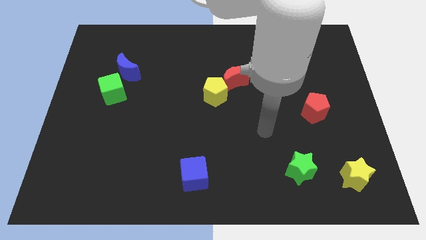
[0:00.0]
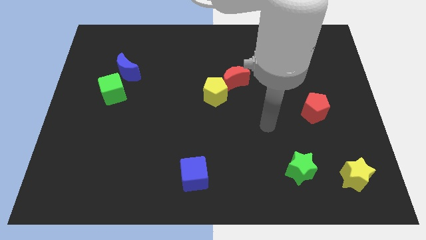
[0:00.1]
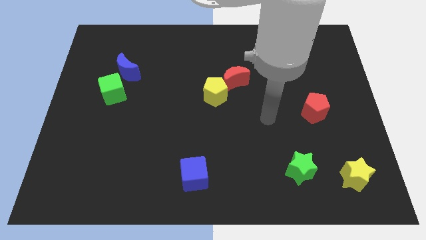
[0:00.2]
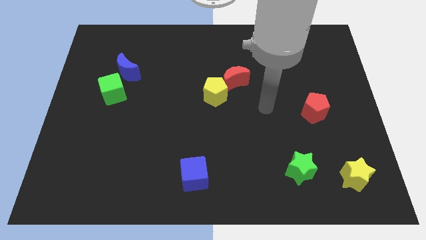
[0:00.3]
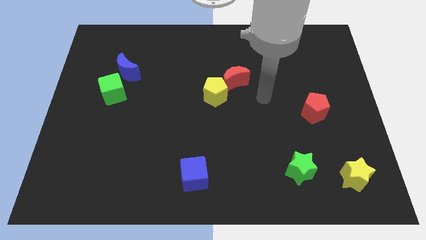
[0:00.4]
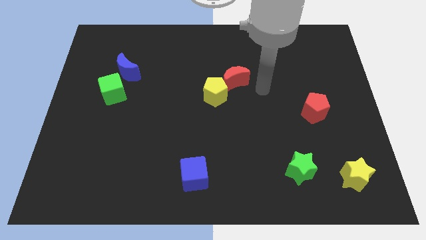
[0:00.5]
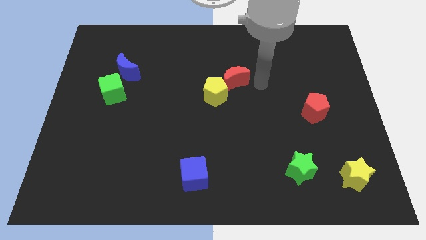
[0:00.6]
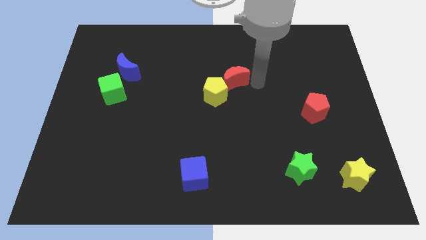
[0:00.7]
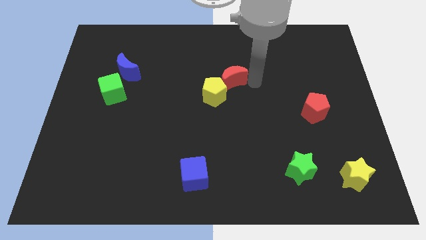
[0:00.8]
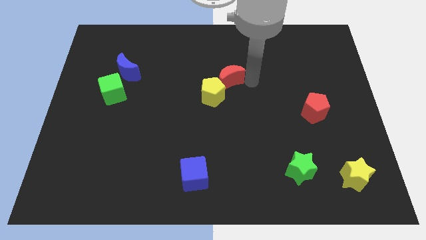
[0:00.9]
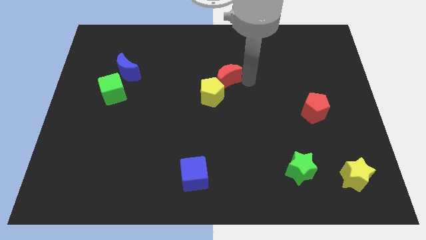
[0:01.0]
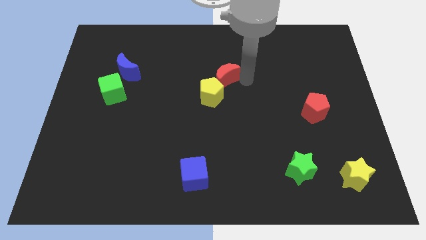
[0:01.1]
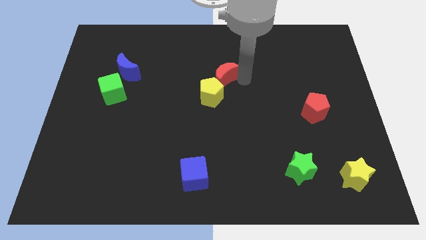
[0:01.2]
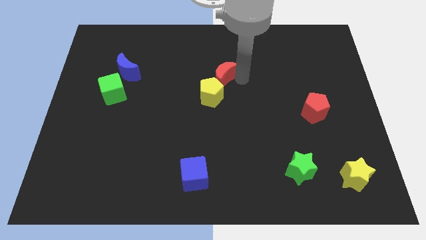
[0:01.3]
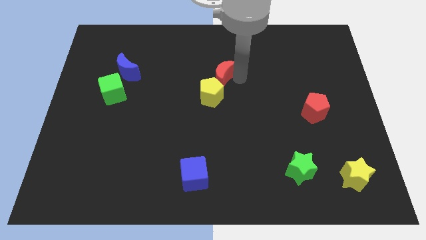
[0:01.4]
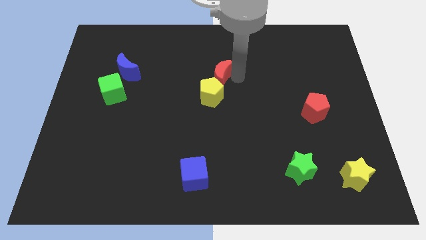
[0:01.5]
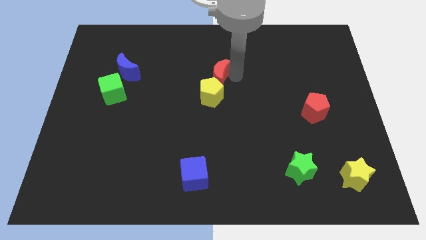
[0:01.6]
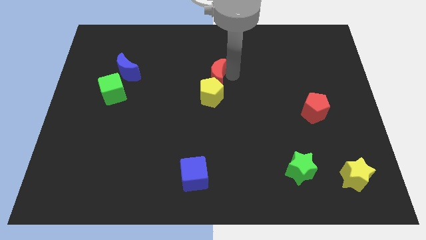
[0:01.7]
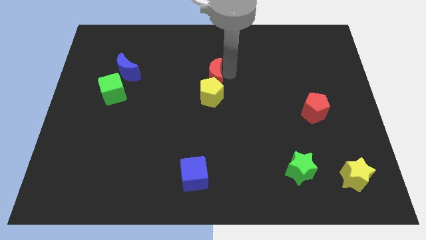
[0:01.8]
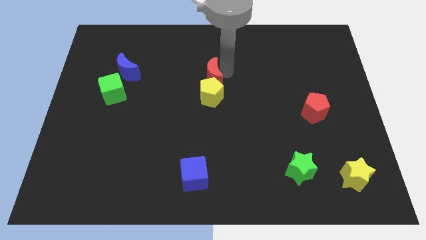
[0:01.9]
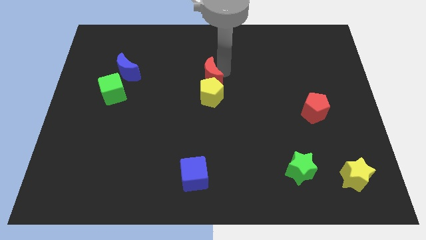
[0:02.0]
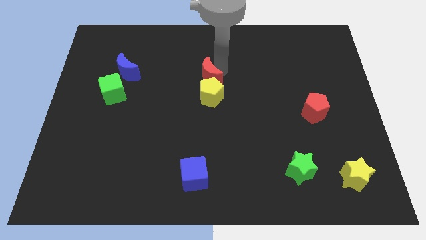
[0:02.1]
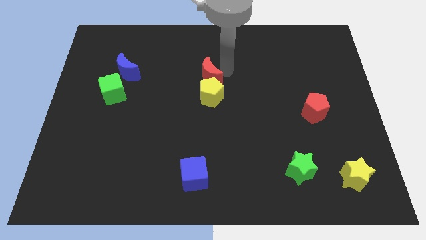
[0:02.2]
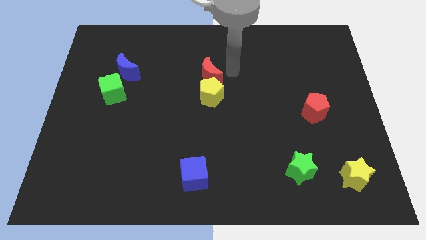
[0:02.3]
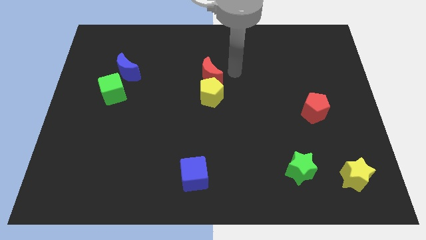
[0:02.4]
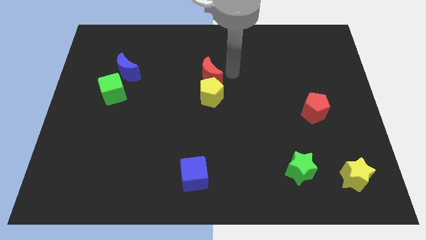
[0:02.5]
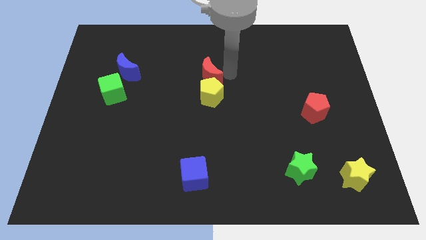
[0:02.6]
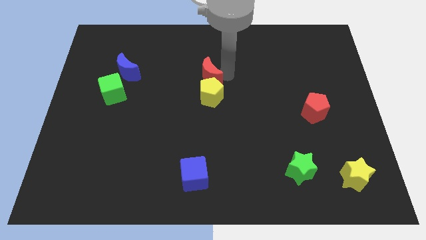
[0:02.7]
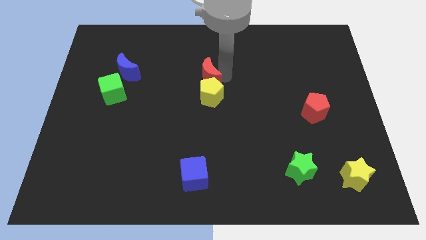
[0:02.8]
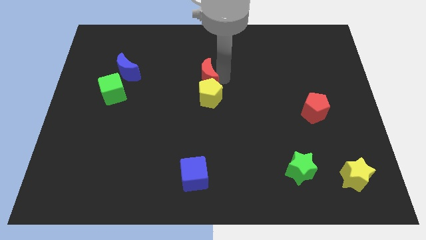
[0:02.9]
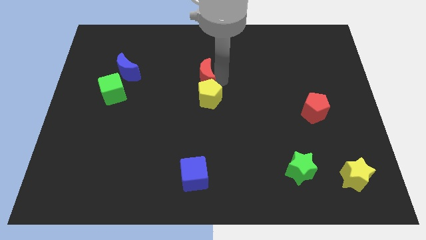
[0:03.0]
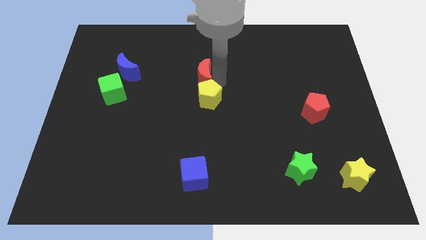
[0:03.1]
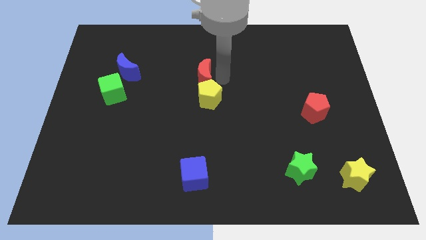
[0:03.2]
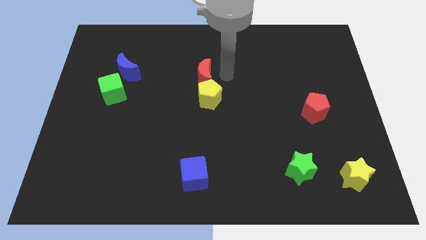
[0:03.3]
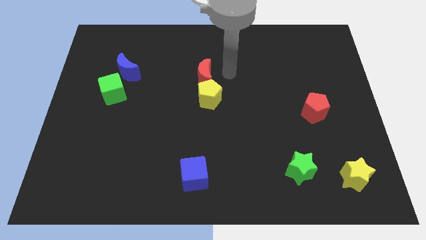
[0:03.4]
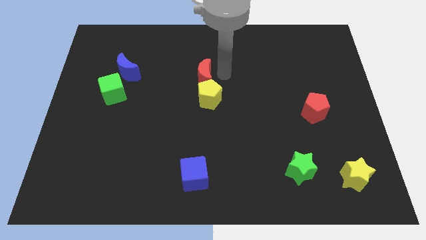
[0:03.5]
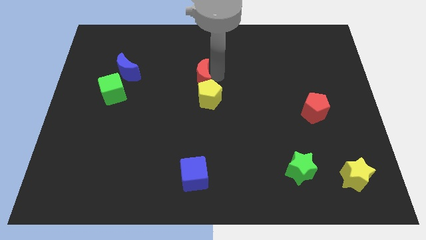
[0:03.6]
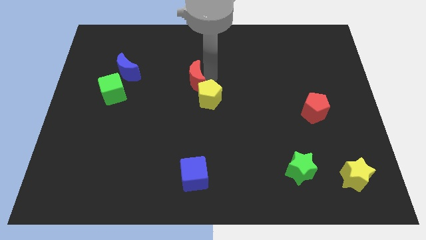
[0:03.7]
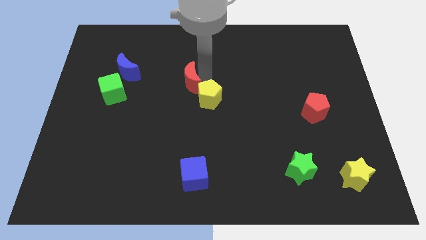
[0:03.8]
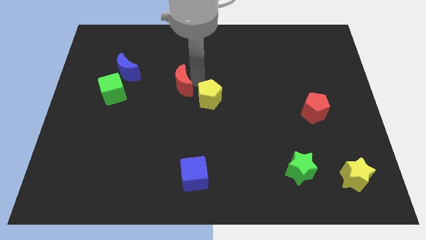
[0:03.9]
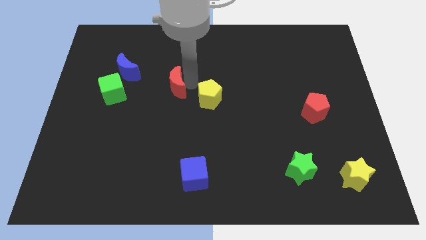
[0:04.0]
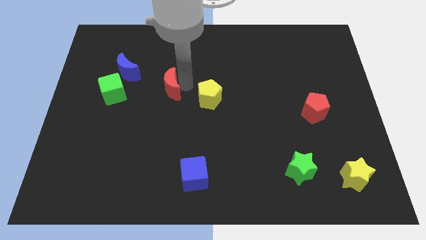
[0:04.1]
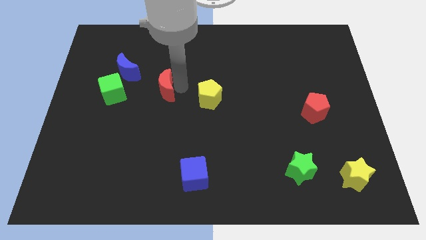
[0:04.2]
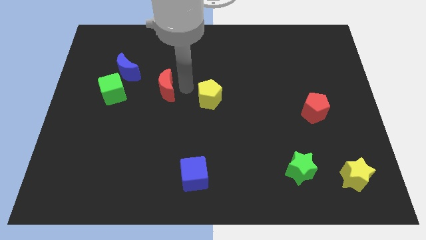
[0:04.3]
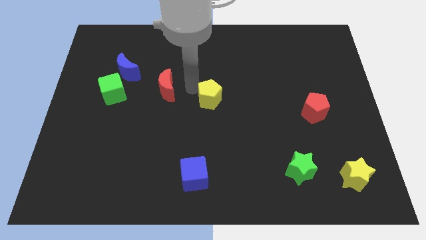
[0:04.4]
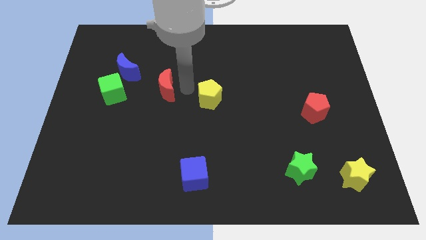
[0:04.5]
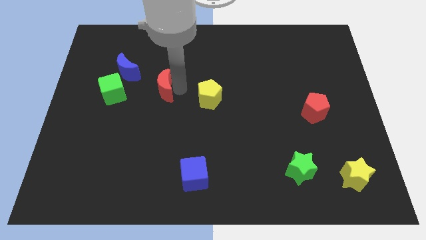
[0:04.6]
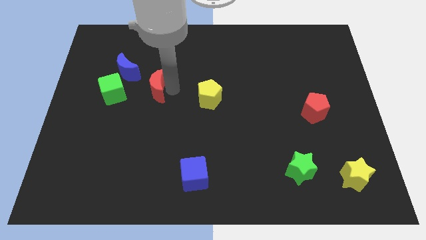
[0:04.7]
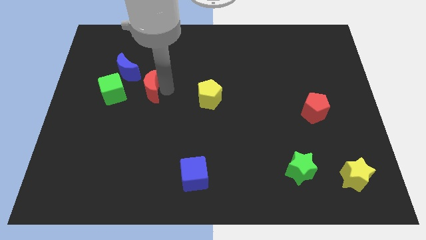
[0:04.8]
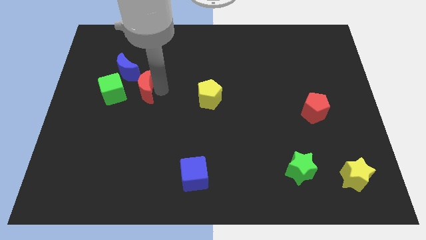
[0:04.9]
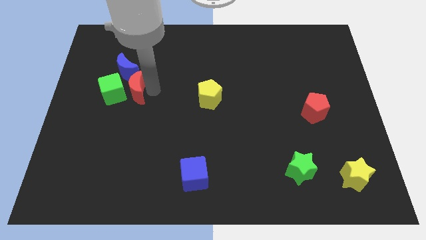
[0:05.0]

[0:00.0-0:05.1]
move the red moon to the green cube

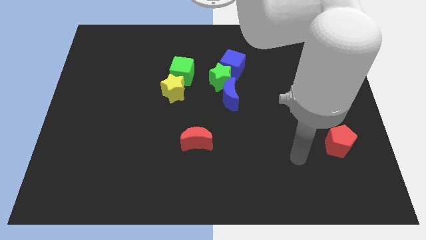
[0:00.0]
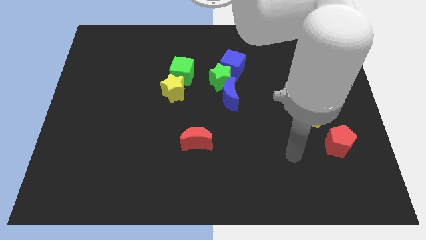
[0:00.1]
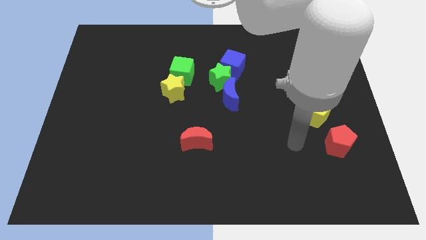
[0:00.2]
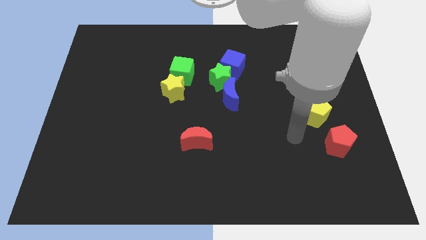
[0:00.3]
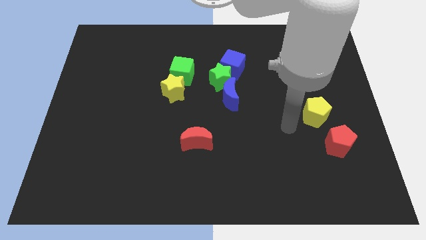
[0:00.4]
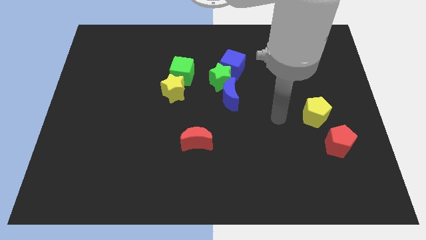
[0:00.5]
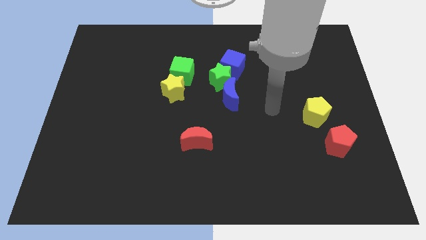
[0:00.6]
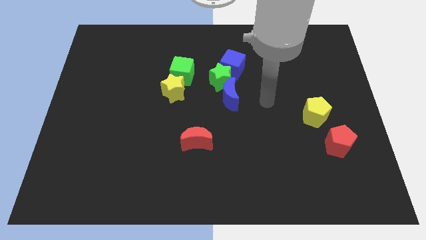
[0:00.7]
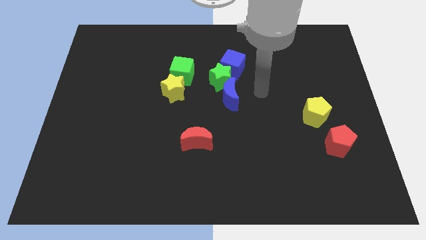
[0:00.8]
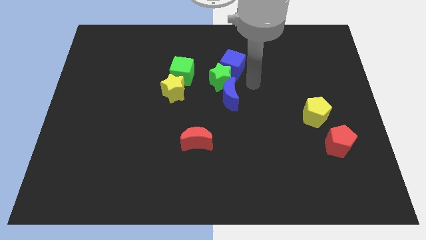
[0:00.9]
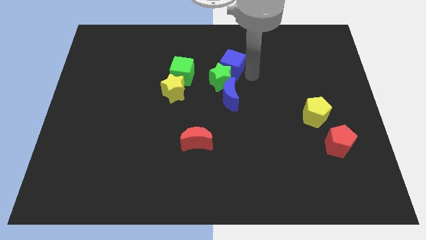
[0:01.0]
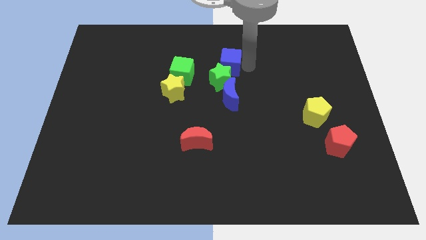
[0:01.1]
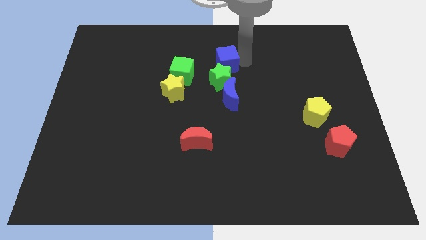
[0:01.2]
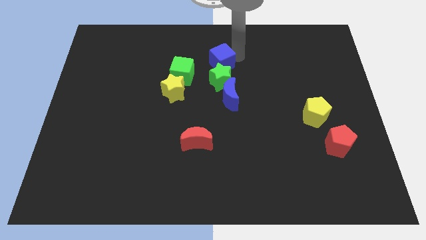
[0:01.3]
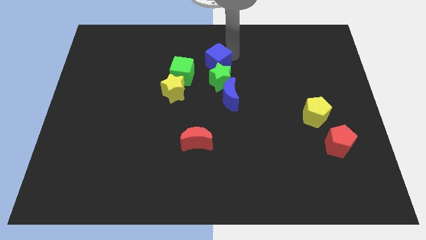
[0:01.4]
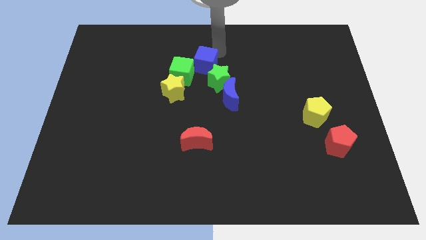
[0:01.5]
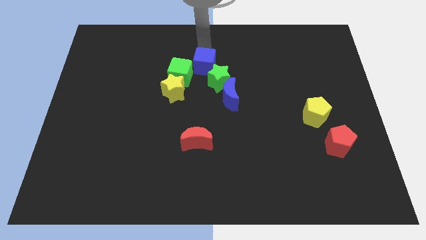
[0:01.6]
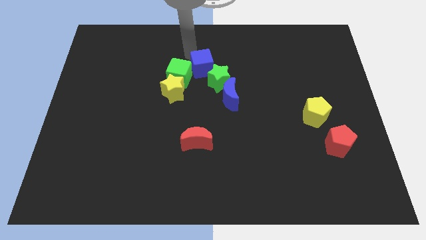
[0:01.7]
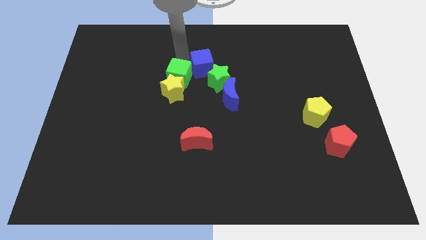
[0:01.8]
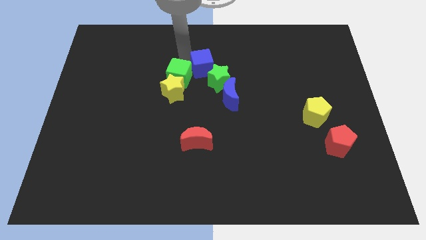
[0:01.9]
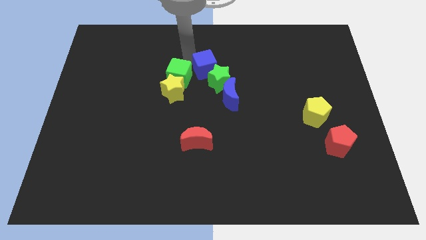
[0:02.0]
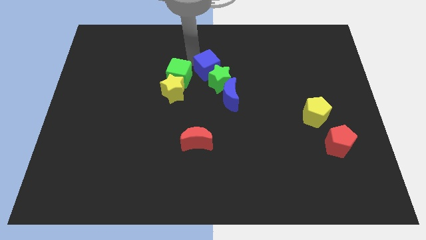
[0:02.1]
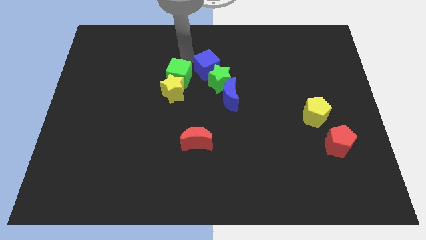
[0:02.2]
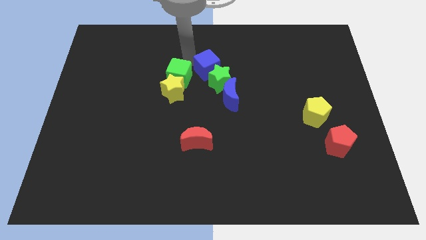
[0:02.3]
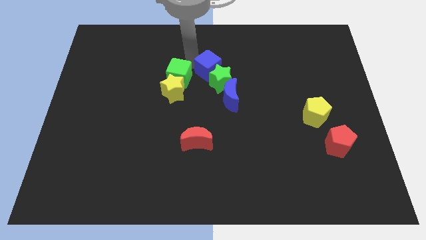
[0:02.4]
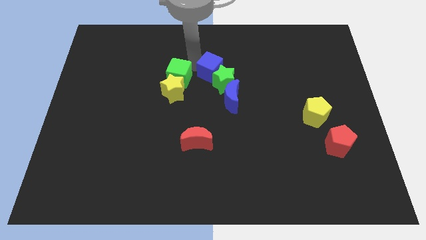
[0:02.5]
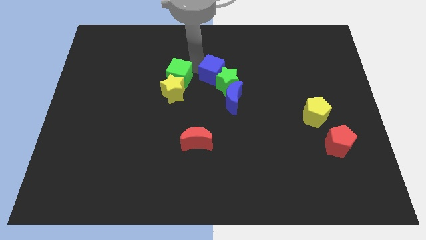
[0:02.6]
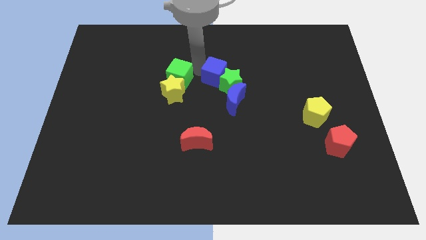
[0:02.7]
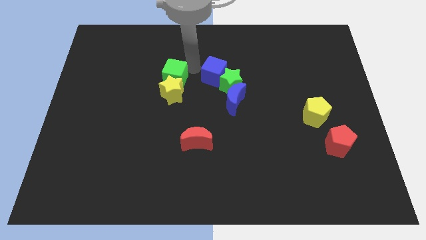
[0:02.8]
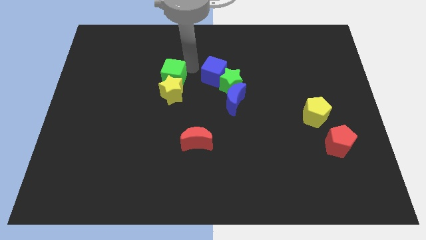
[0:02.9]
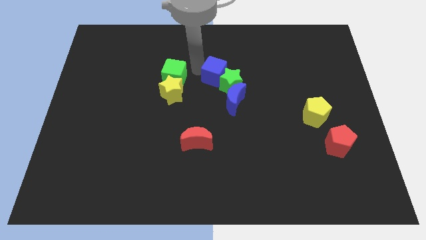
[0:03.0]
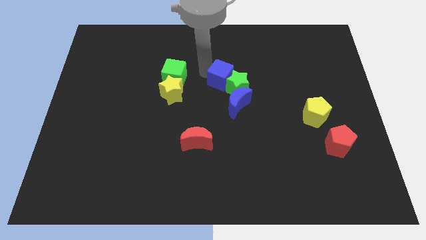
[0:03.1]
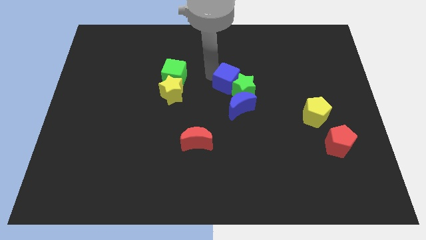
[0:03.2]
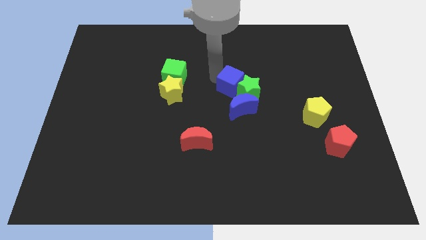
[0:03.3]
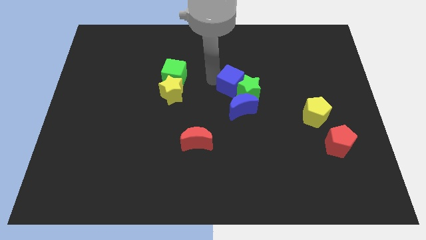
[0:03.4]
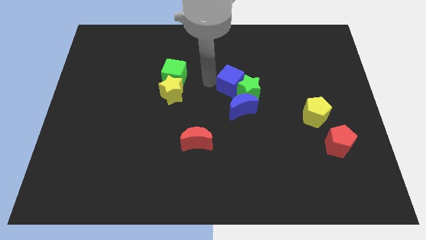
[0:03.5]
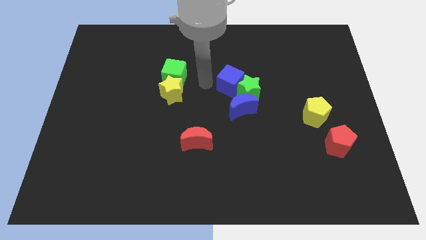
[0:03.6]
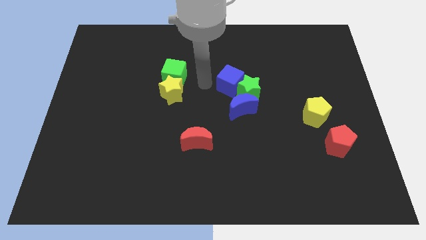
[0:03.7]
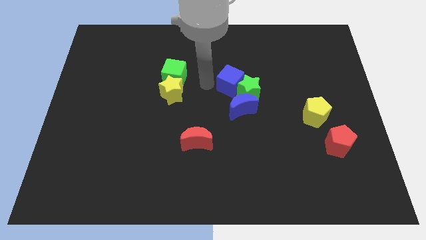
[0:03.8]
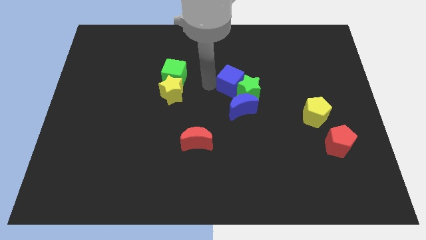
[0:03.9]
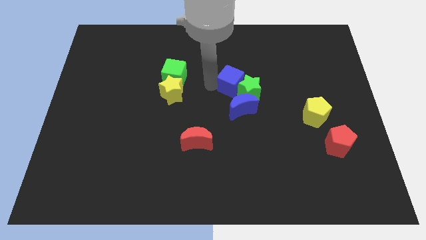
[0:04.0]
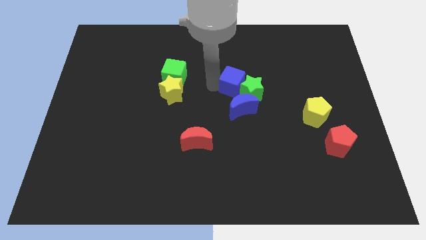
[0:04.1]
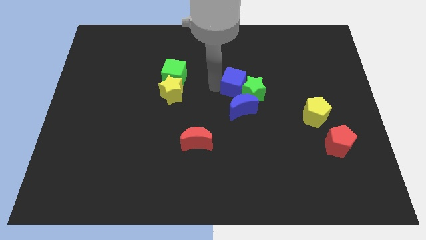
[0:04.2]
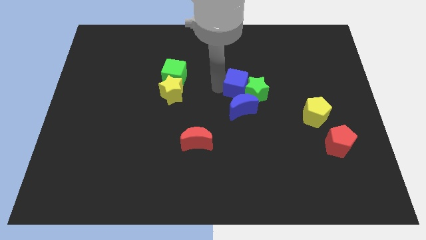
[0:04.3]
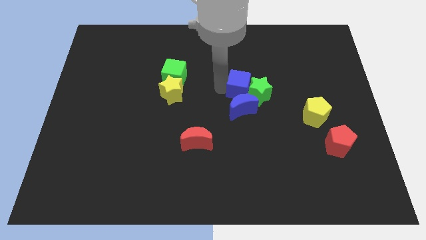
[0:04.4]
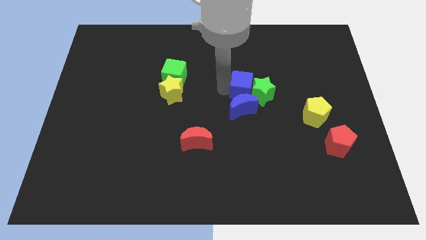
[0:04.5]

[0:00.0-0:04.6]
move the blue cube towards the blue moon
